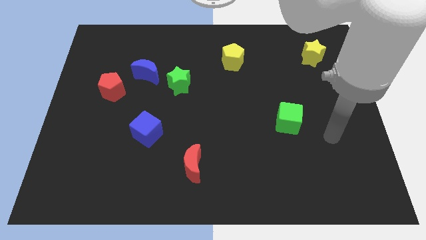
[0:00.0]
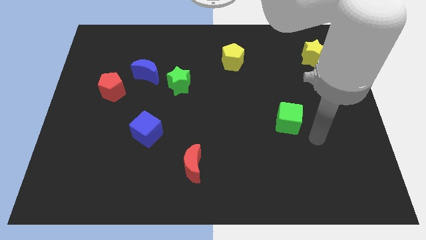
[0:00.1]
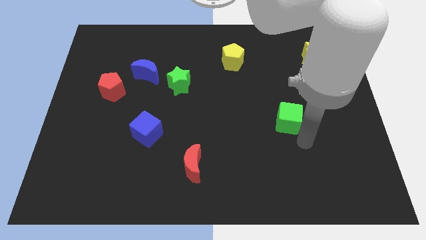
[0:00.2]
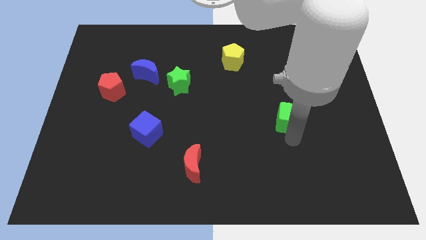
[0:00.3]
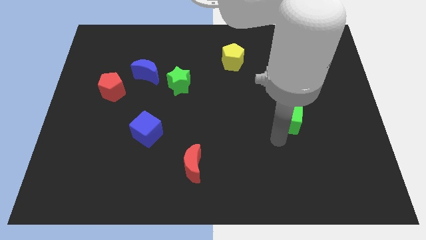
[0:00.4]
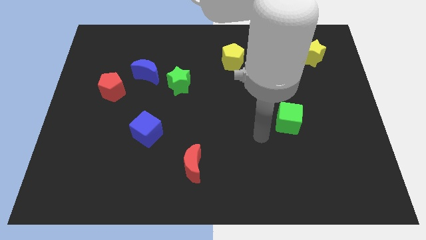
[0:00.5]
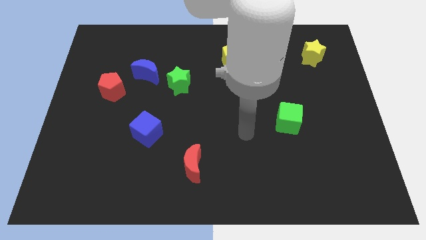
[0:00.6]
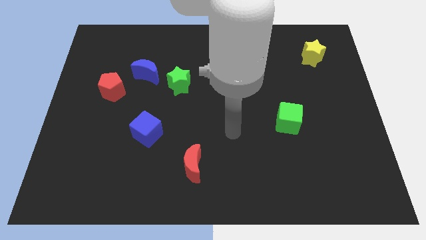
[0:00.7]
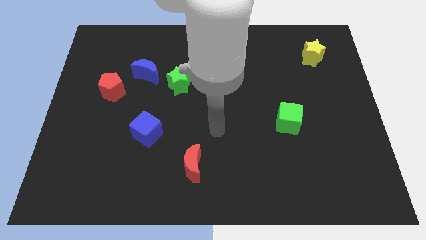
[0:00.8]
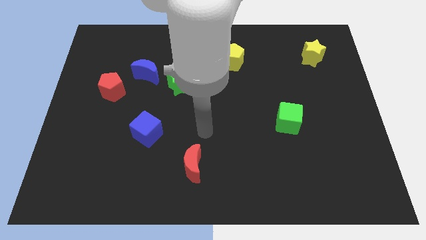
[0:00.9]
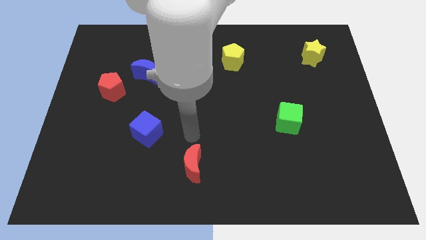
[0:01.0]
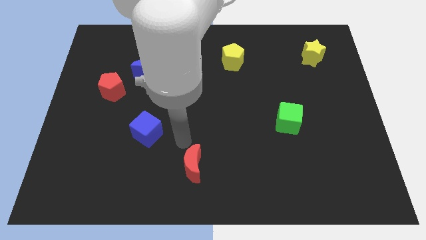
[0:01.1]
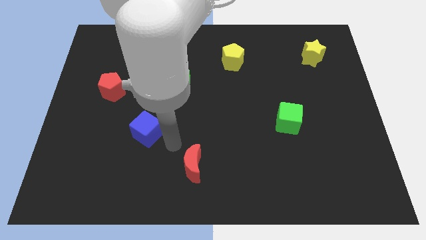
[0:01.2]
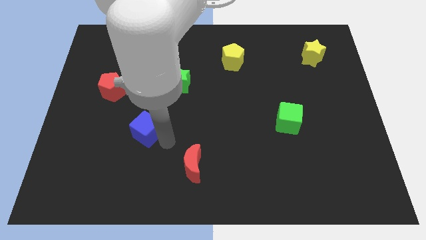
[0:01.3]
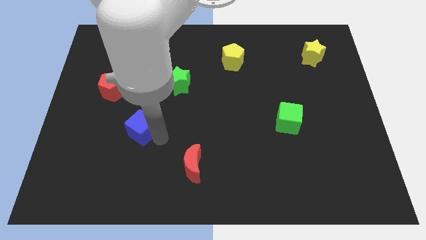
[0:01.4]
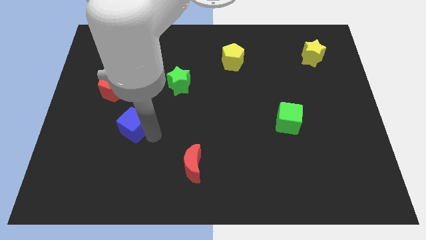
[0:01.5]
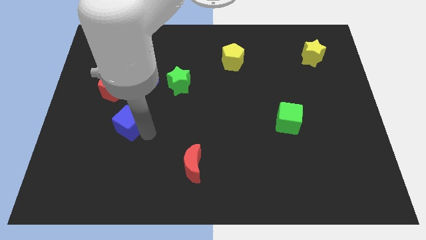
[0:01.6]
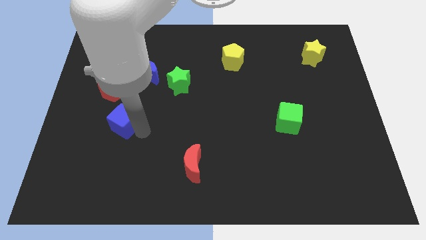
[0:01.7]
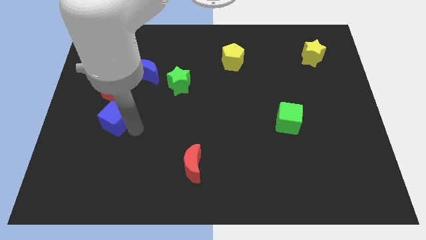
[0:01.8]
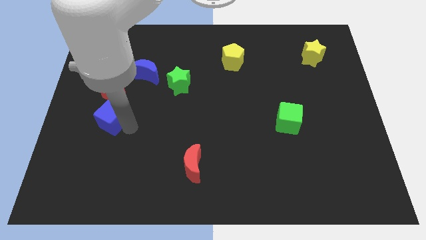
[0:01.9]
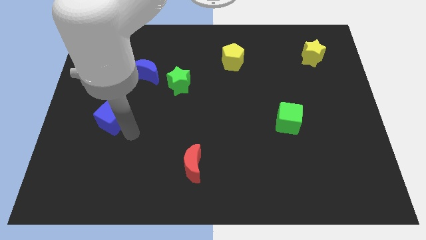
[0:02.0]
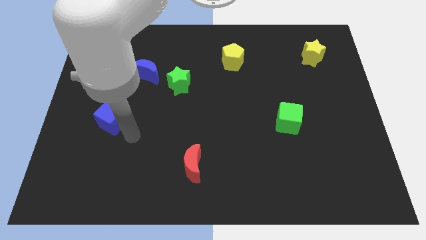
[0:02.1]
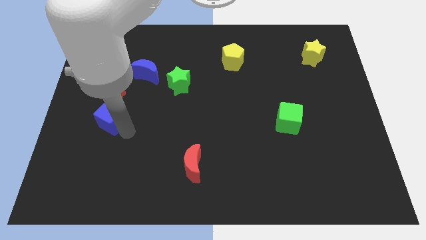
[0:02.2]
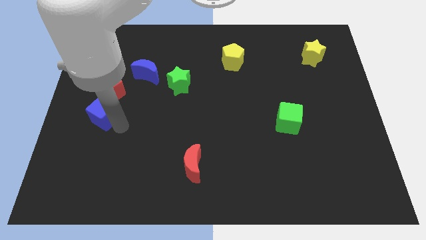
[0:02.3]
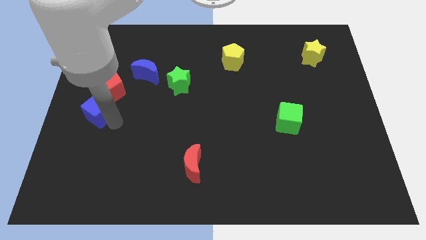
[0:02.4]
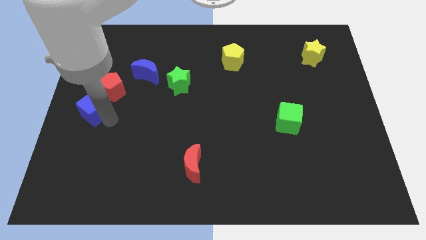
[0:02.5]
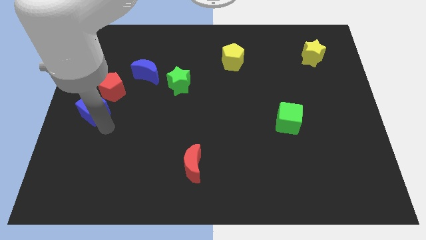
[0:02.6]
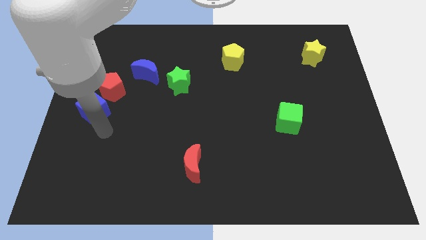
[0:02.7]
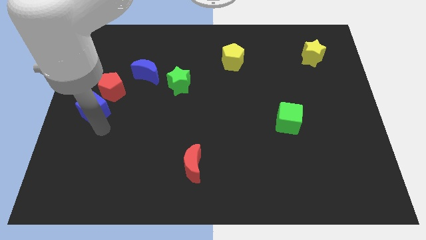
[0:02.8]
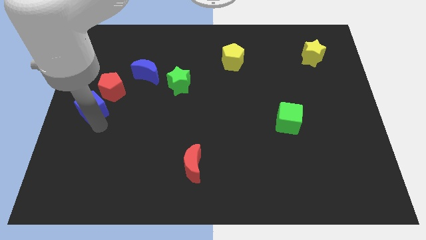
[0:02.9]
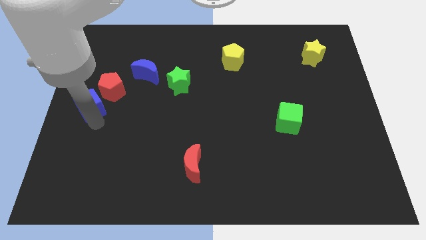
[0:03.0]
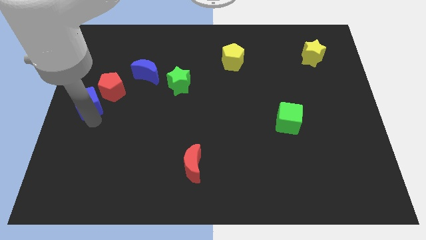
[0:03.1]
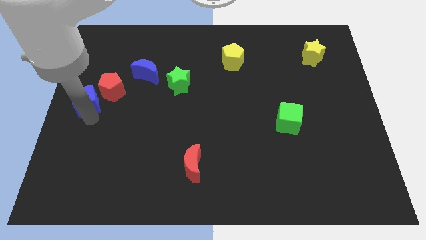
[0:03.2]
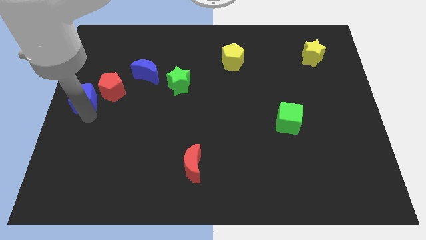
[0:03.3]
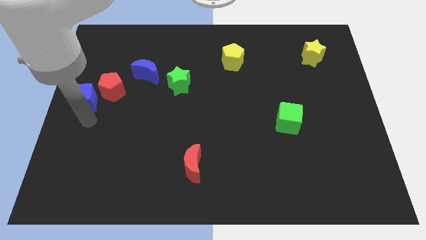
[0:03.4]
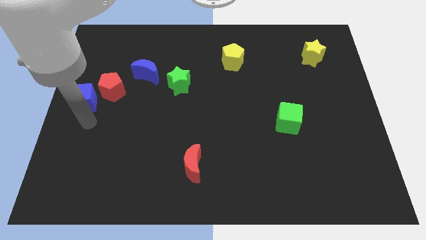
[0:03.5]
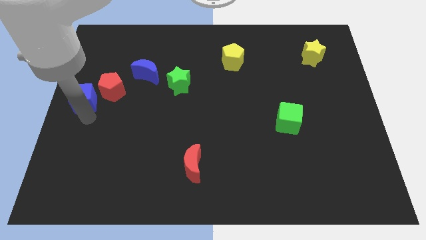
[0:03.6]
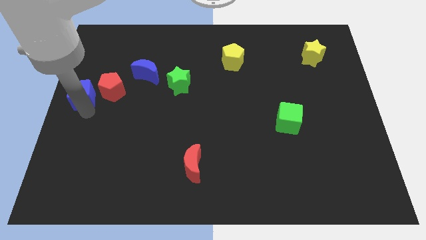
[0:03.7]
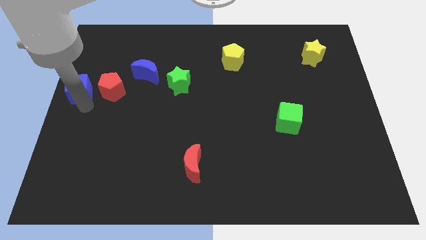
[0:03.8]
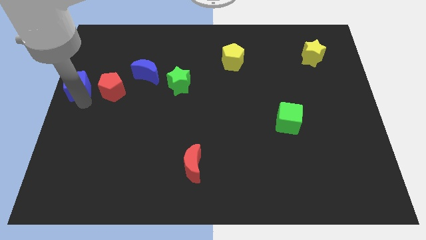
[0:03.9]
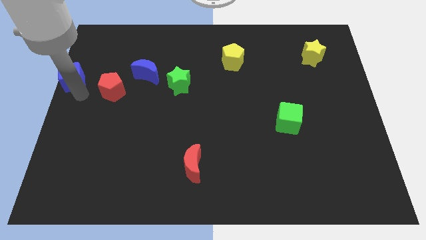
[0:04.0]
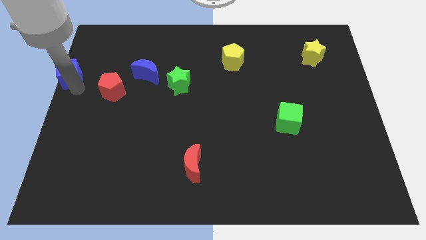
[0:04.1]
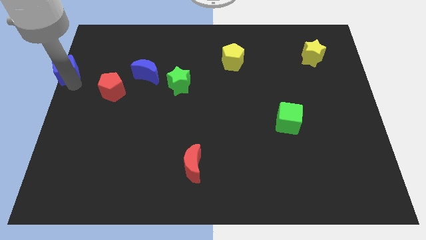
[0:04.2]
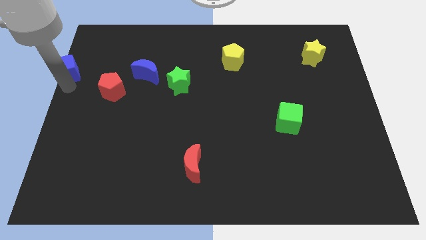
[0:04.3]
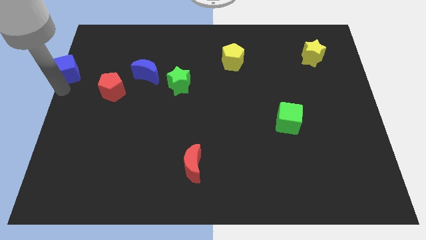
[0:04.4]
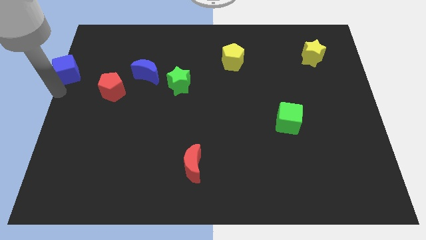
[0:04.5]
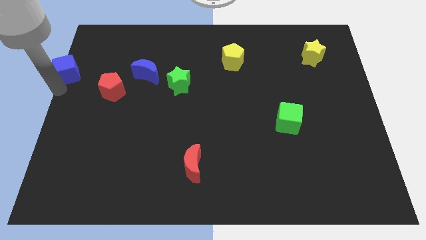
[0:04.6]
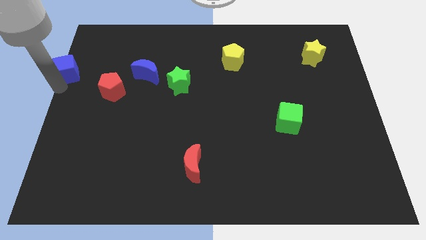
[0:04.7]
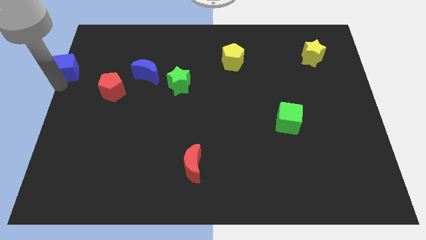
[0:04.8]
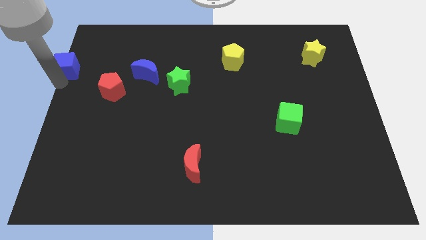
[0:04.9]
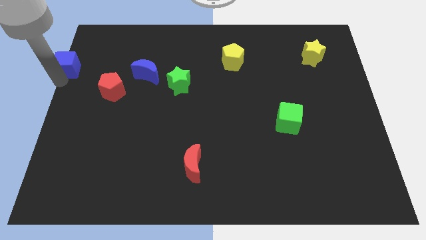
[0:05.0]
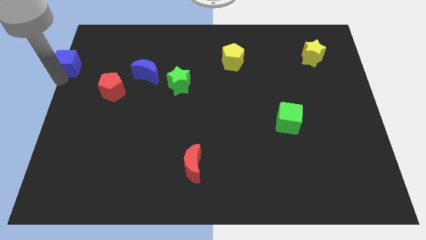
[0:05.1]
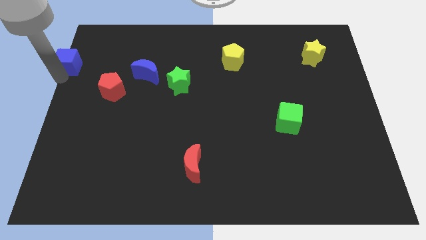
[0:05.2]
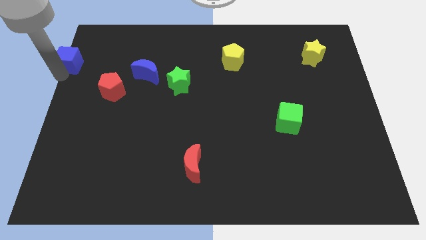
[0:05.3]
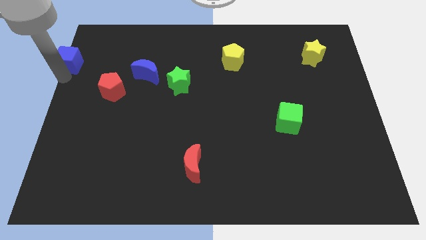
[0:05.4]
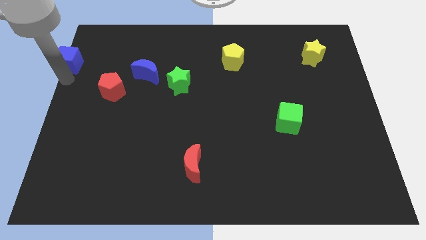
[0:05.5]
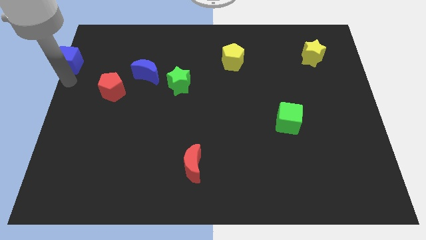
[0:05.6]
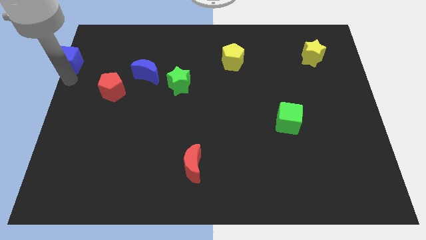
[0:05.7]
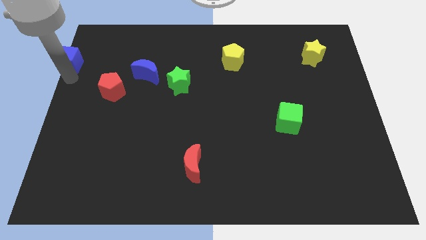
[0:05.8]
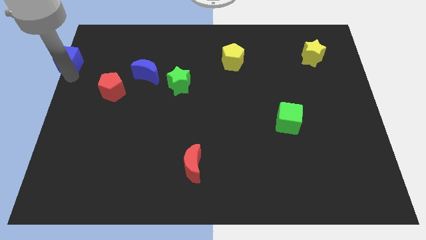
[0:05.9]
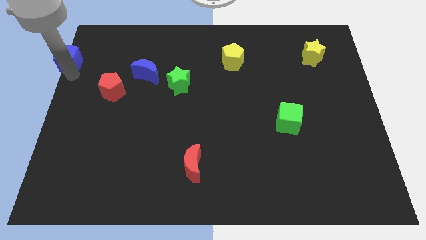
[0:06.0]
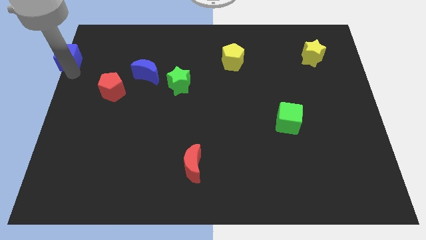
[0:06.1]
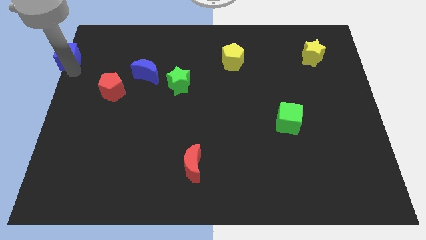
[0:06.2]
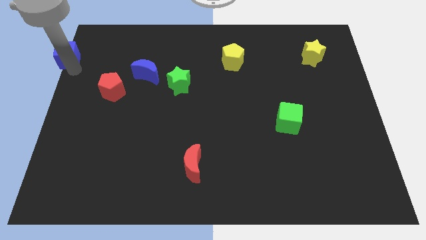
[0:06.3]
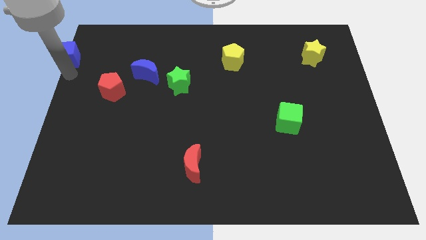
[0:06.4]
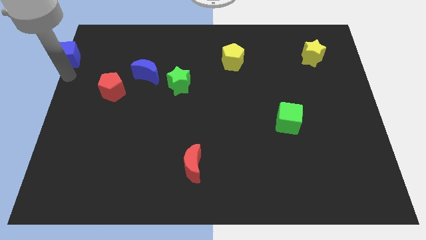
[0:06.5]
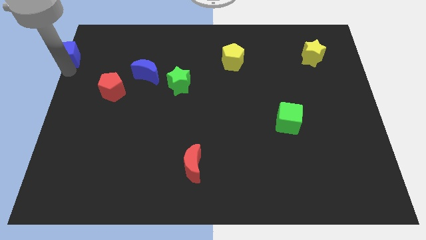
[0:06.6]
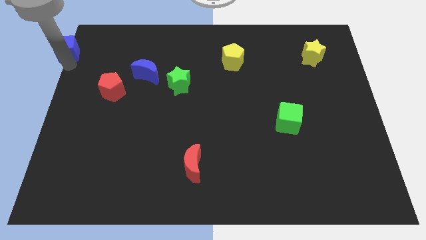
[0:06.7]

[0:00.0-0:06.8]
slide the blue cube to the top left corner

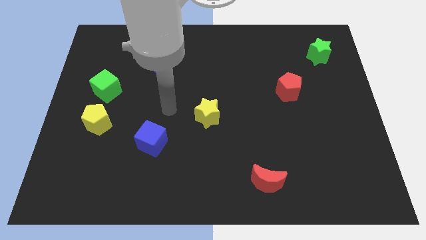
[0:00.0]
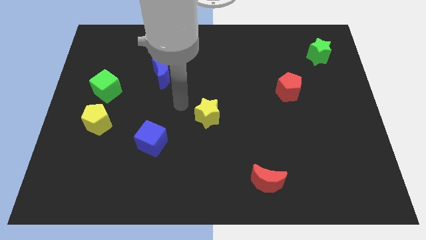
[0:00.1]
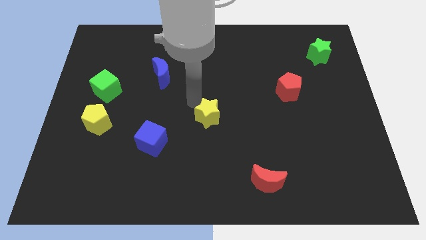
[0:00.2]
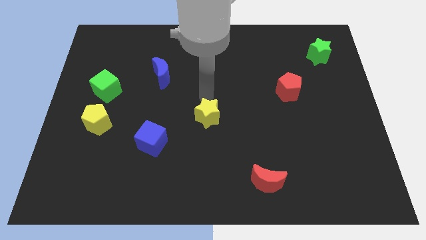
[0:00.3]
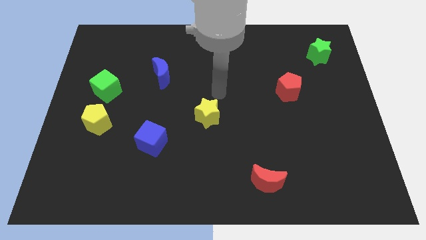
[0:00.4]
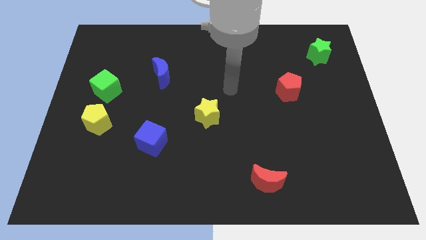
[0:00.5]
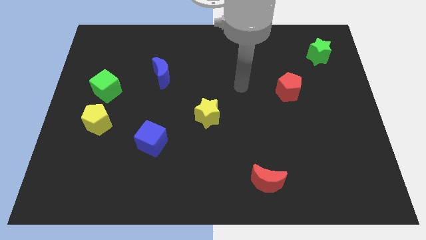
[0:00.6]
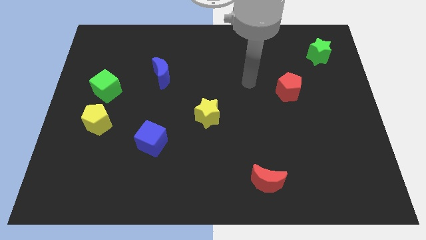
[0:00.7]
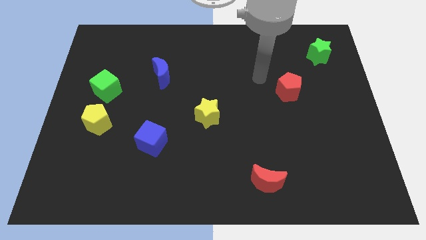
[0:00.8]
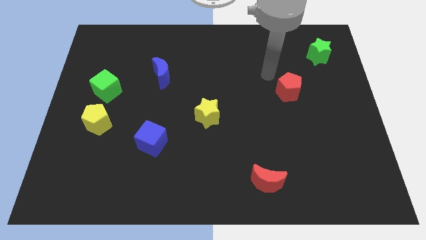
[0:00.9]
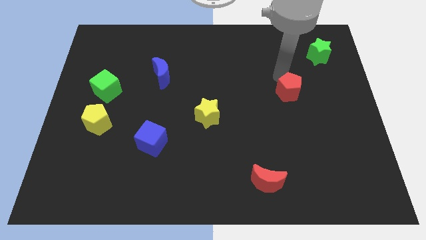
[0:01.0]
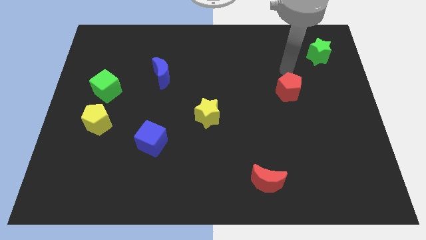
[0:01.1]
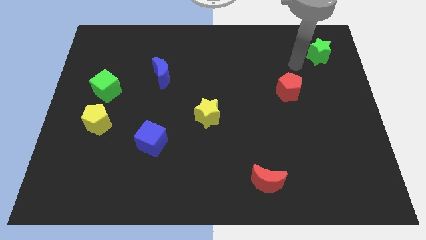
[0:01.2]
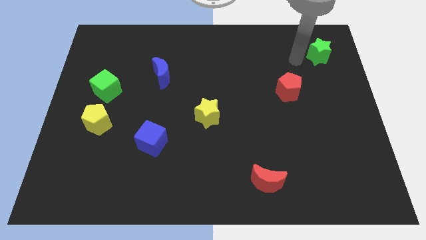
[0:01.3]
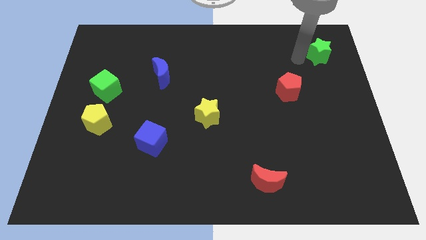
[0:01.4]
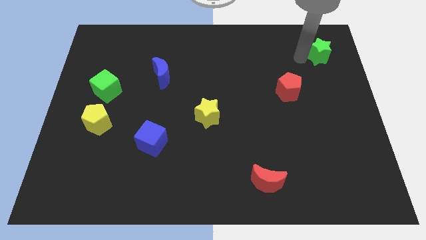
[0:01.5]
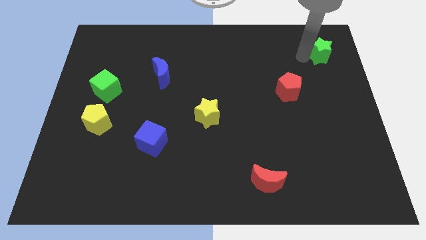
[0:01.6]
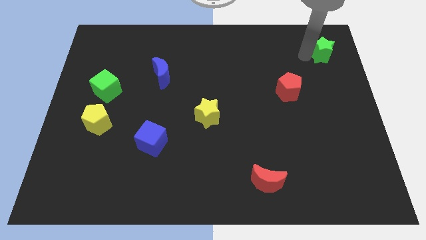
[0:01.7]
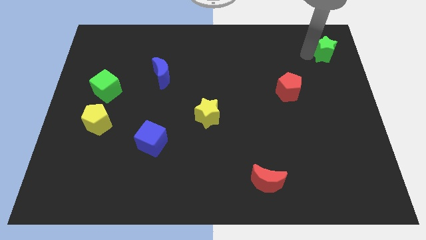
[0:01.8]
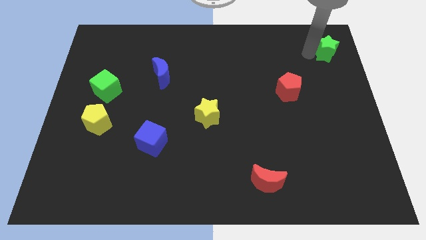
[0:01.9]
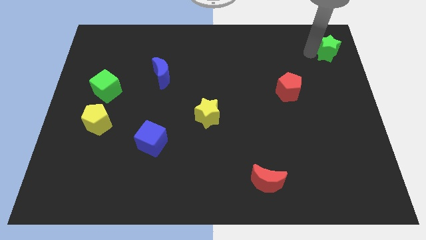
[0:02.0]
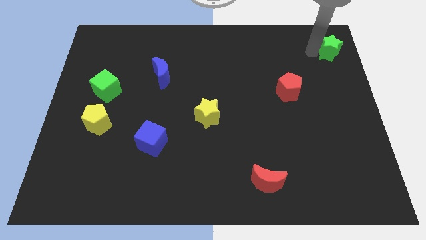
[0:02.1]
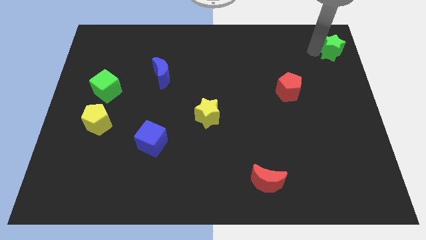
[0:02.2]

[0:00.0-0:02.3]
slide the green star to the top right
